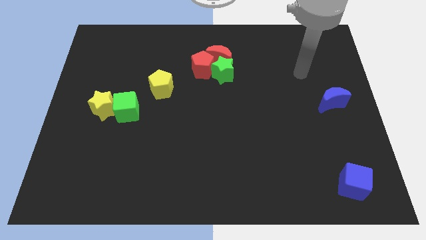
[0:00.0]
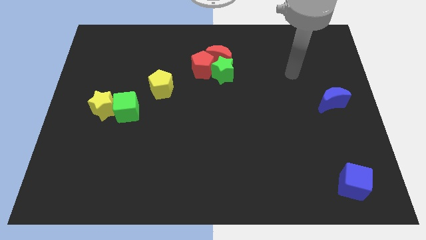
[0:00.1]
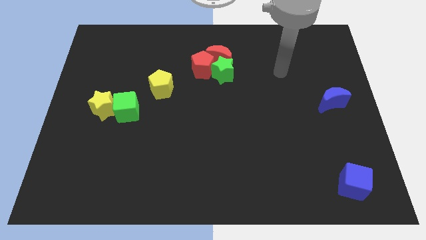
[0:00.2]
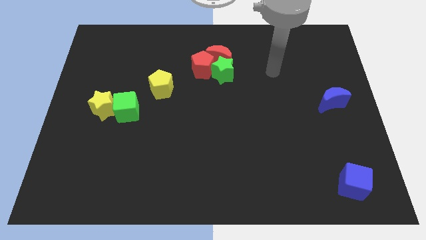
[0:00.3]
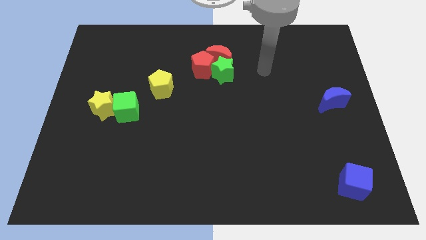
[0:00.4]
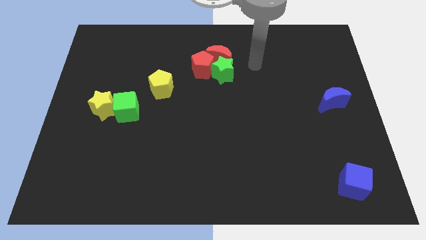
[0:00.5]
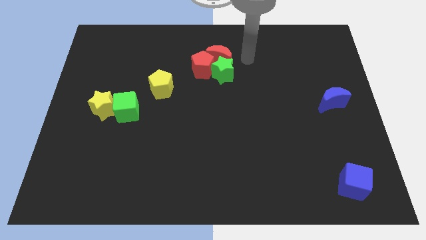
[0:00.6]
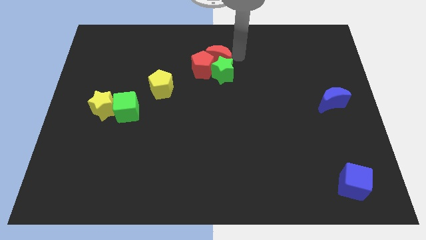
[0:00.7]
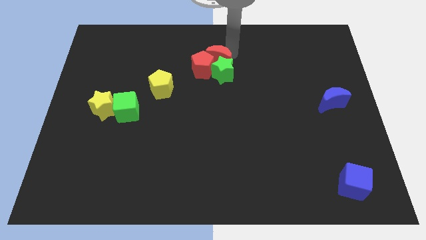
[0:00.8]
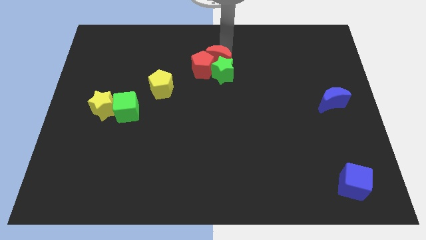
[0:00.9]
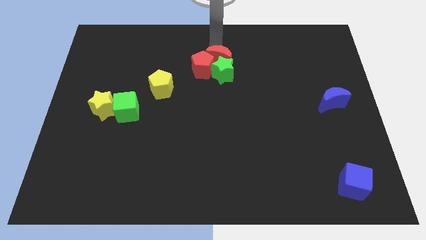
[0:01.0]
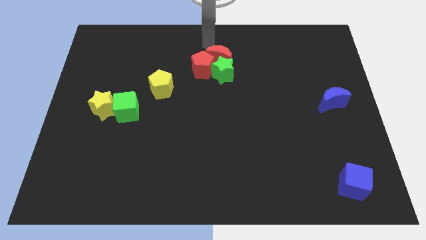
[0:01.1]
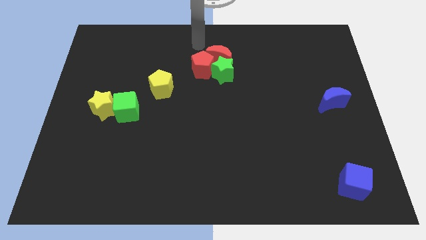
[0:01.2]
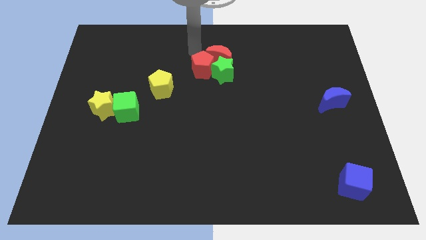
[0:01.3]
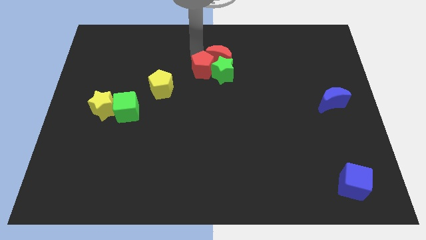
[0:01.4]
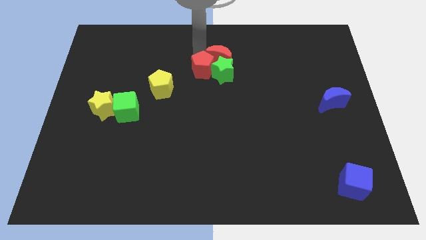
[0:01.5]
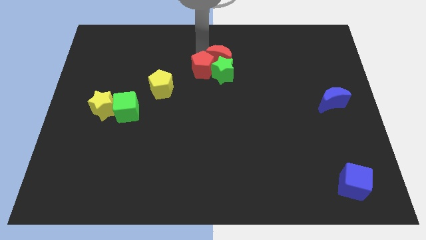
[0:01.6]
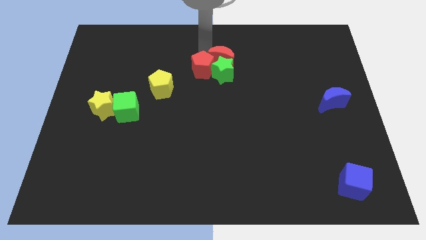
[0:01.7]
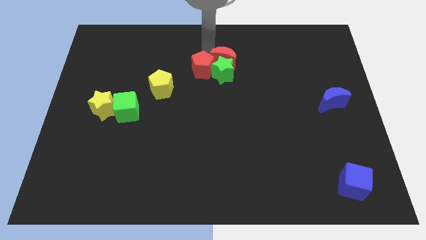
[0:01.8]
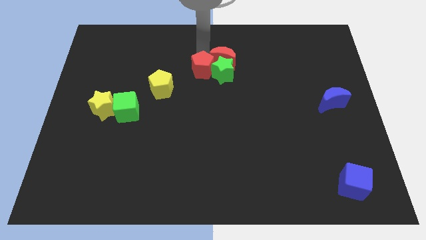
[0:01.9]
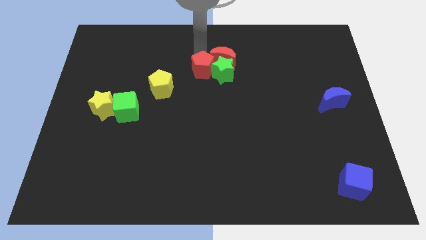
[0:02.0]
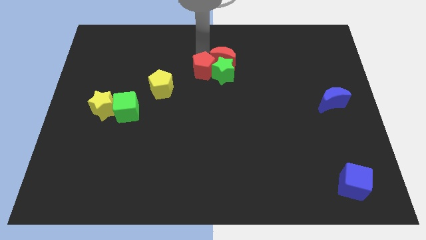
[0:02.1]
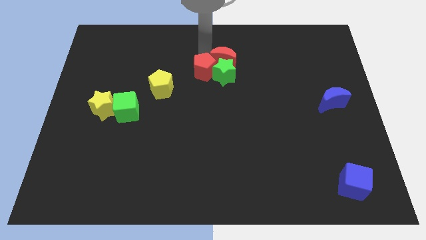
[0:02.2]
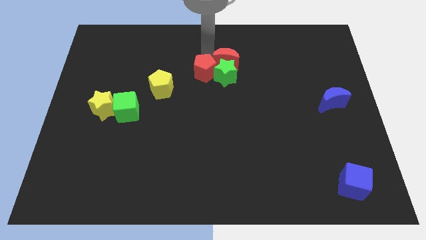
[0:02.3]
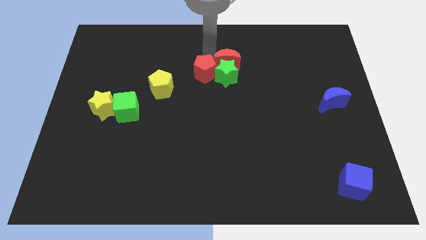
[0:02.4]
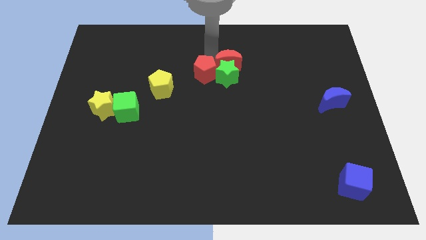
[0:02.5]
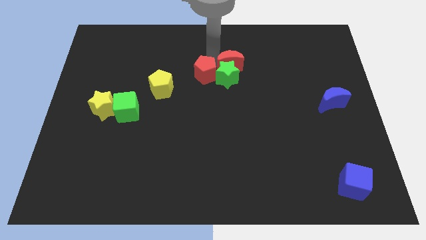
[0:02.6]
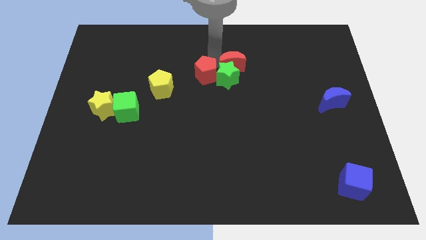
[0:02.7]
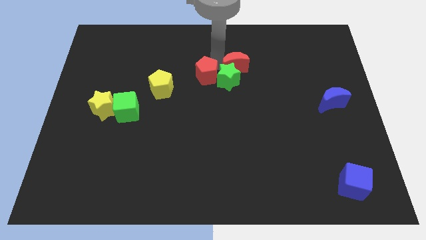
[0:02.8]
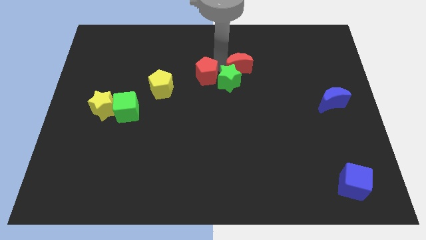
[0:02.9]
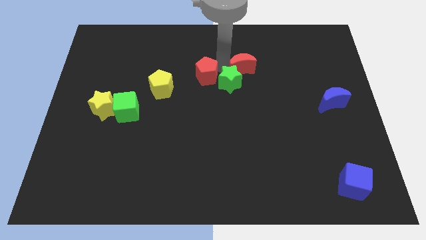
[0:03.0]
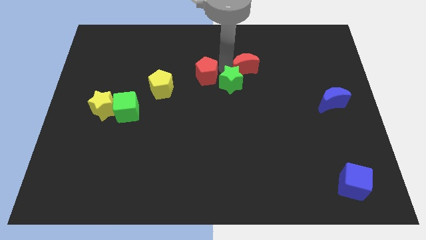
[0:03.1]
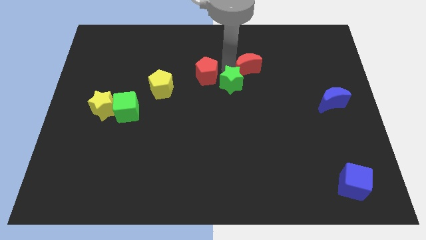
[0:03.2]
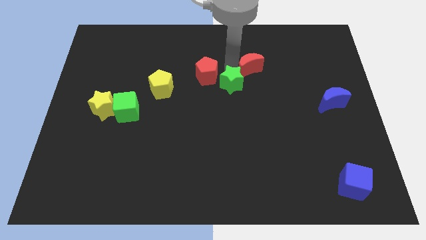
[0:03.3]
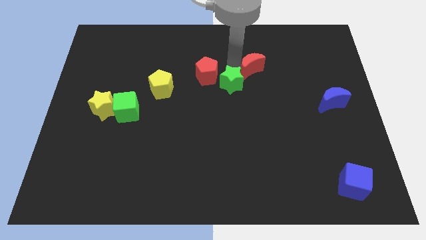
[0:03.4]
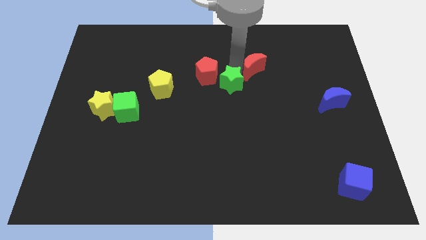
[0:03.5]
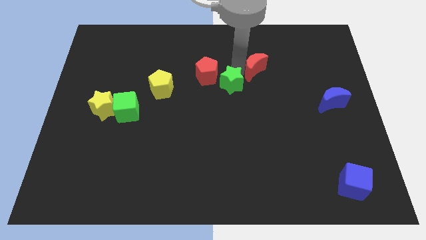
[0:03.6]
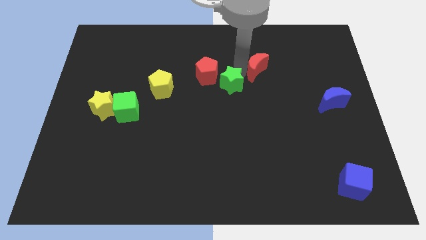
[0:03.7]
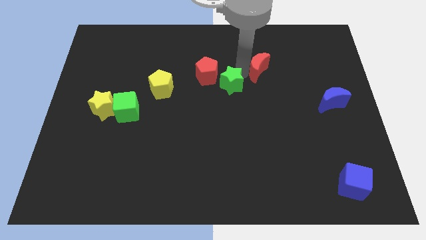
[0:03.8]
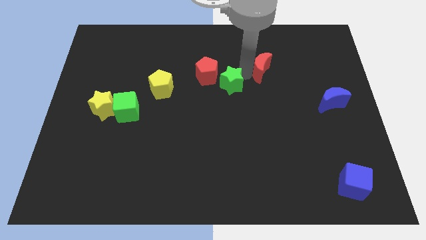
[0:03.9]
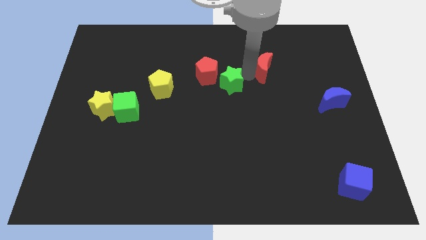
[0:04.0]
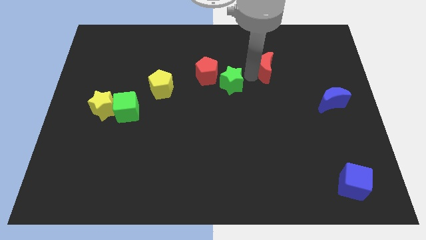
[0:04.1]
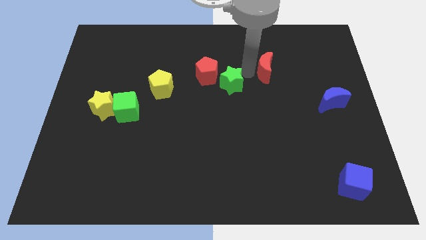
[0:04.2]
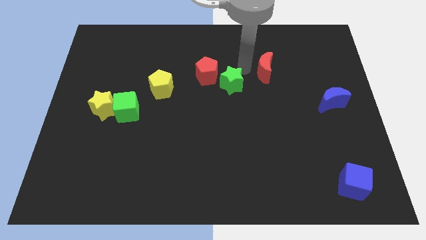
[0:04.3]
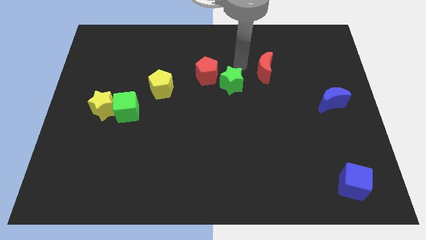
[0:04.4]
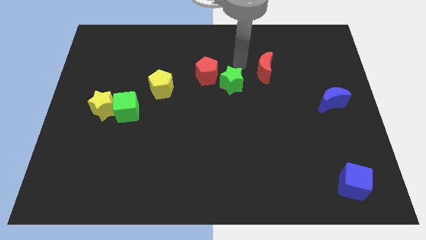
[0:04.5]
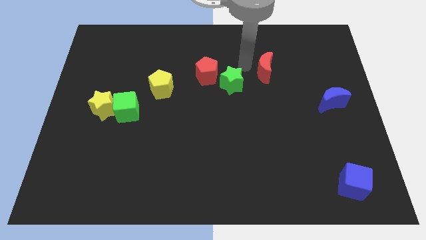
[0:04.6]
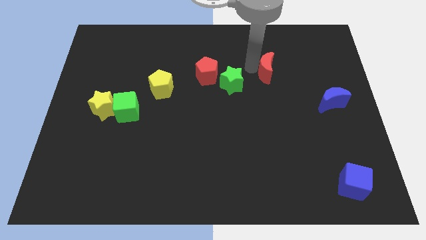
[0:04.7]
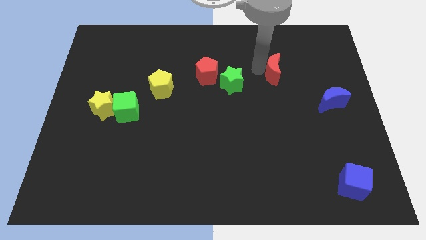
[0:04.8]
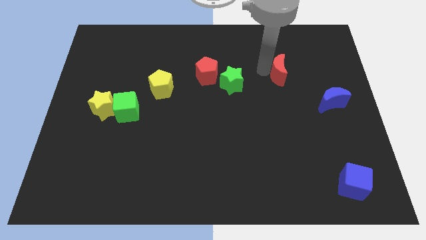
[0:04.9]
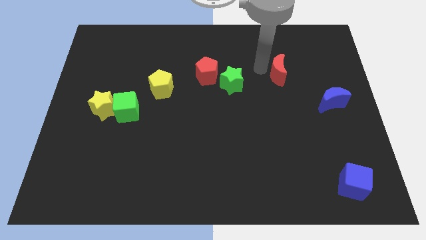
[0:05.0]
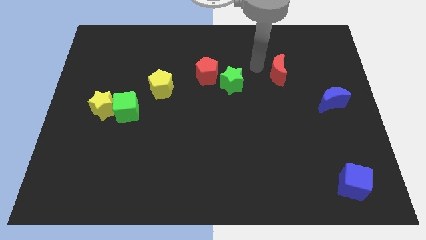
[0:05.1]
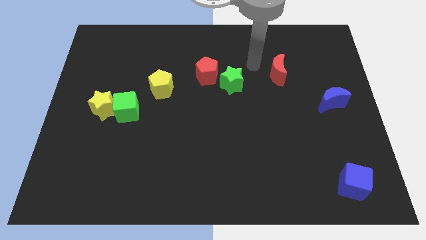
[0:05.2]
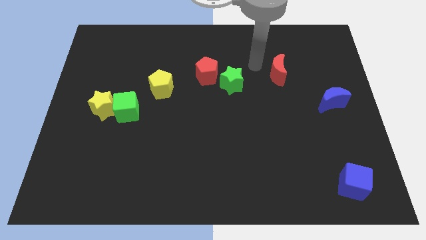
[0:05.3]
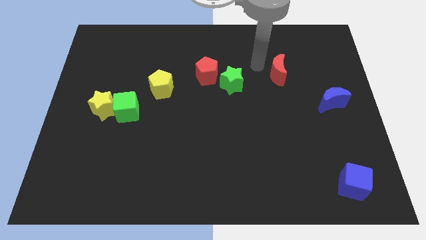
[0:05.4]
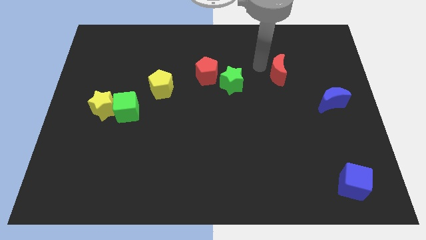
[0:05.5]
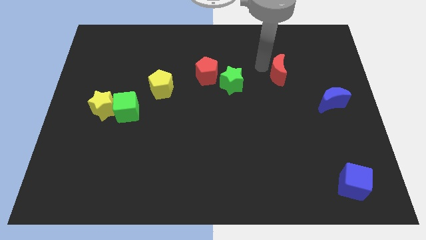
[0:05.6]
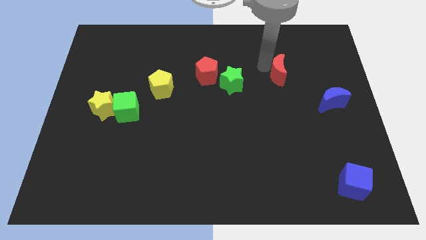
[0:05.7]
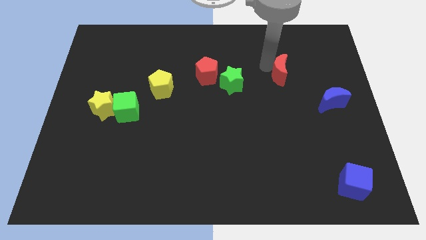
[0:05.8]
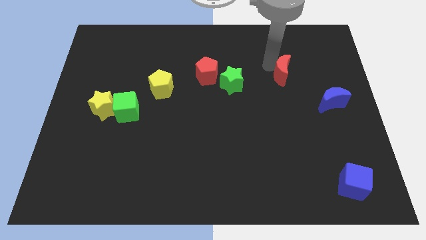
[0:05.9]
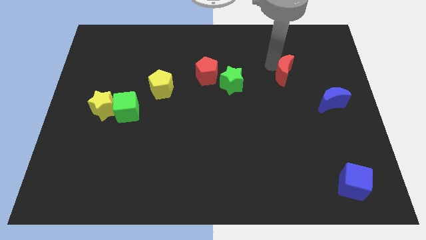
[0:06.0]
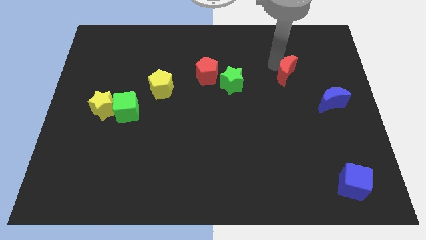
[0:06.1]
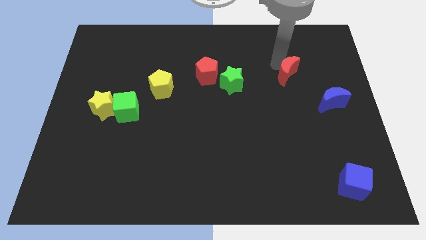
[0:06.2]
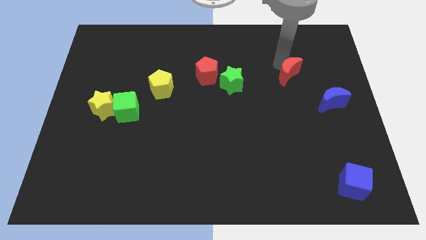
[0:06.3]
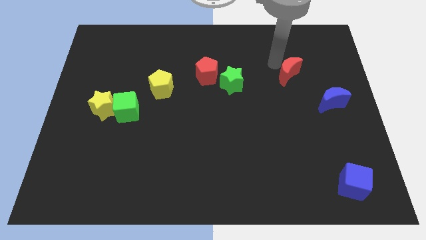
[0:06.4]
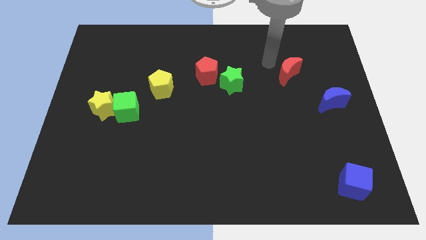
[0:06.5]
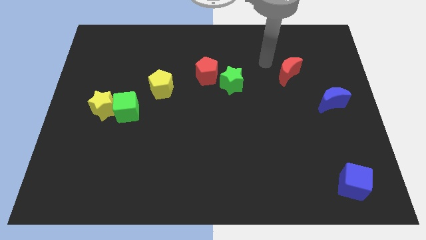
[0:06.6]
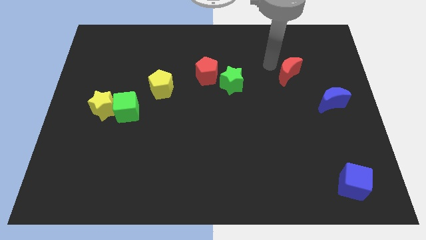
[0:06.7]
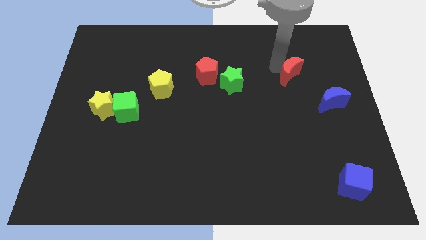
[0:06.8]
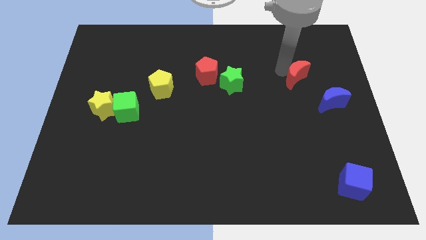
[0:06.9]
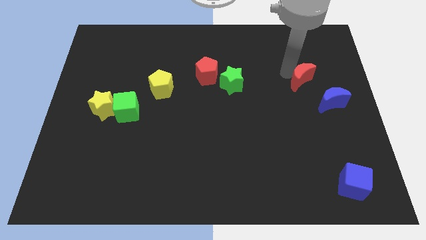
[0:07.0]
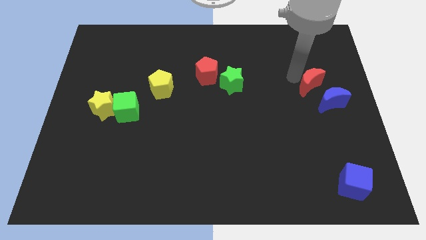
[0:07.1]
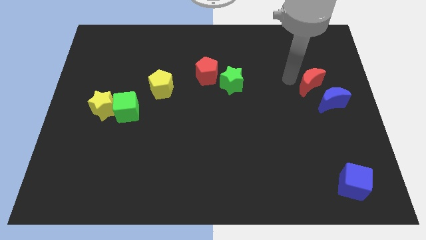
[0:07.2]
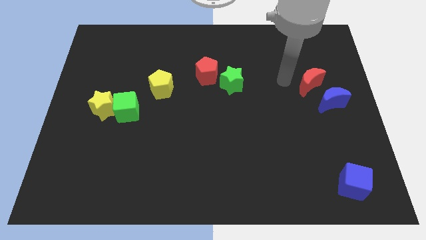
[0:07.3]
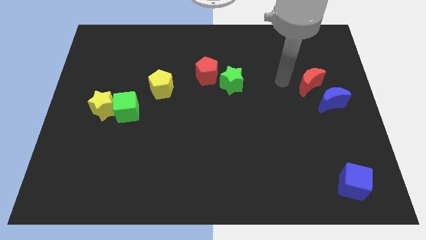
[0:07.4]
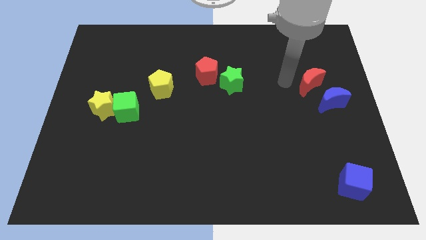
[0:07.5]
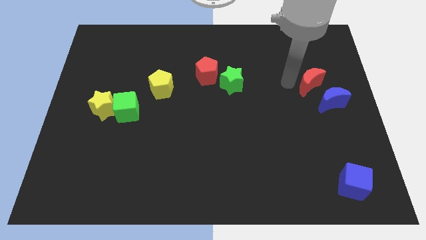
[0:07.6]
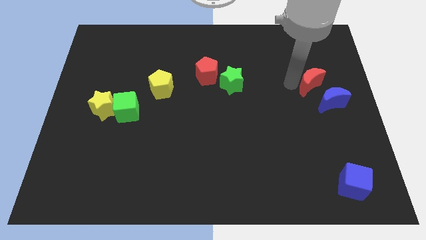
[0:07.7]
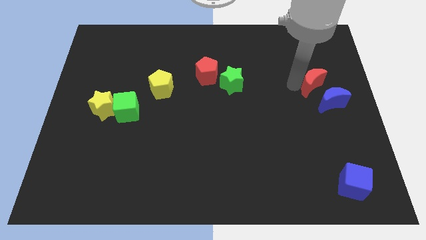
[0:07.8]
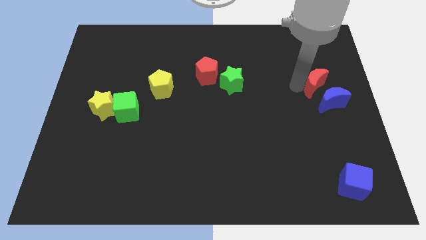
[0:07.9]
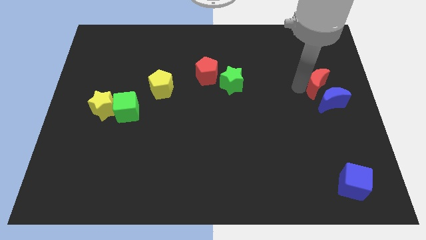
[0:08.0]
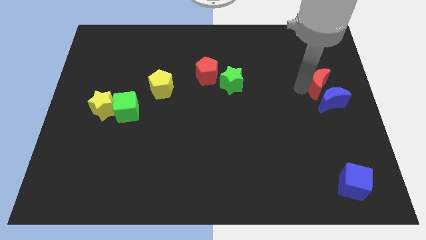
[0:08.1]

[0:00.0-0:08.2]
move the red moon to the center right
